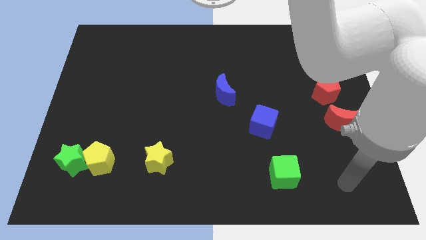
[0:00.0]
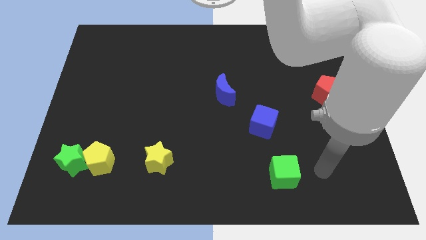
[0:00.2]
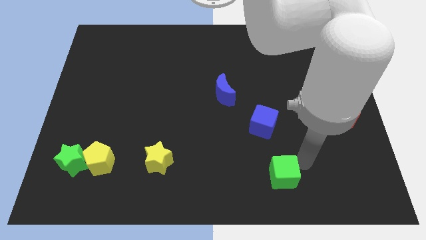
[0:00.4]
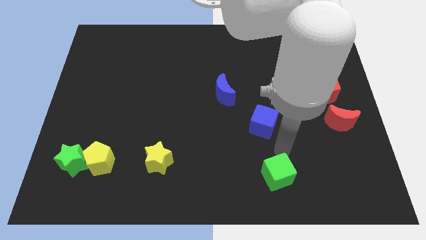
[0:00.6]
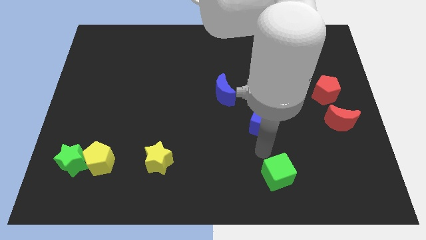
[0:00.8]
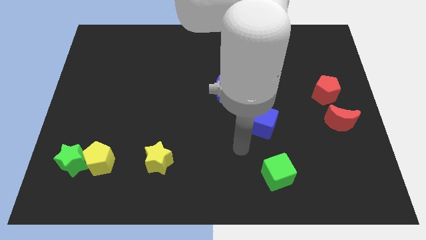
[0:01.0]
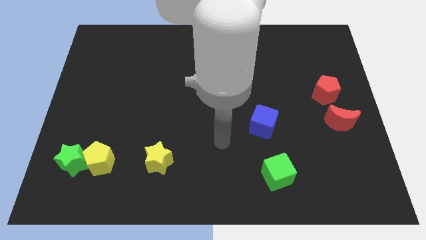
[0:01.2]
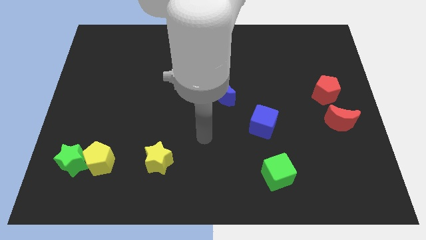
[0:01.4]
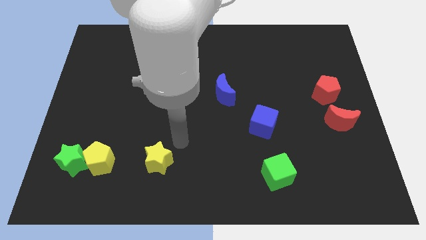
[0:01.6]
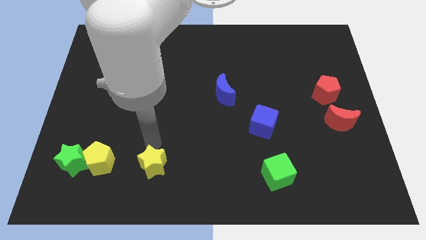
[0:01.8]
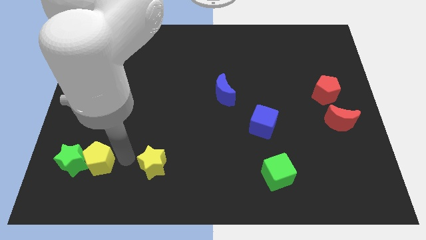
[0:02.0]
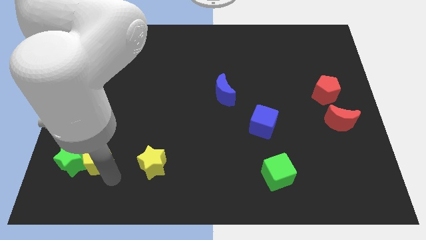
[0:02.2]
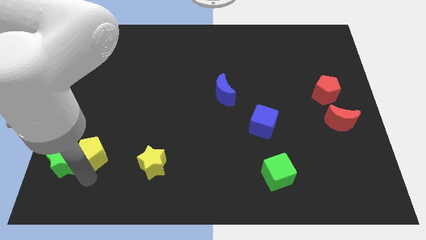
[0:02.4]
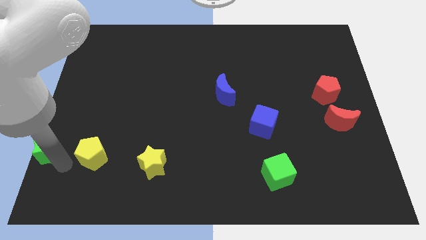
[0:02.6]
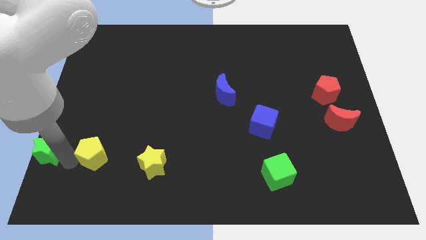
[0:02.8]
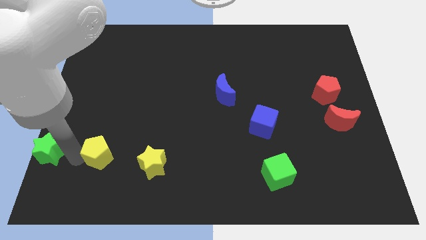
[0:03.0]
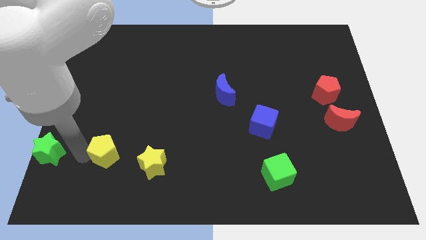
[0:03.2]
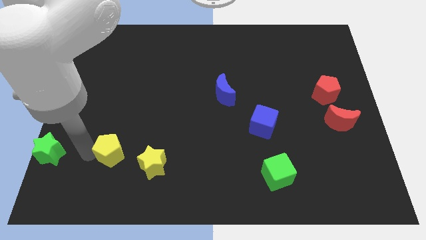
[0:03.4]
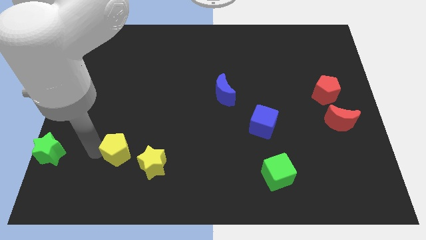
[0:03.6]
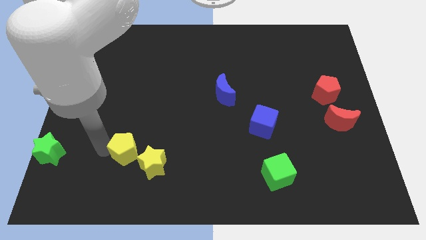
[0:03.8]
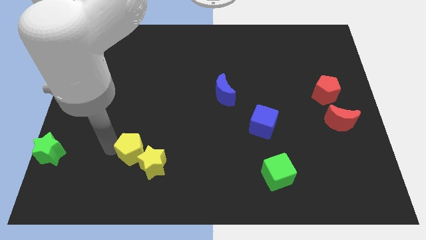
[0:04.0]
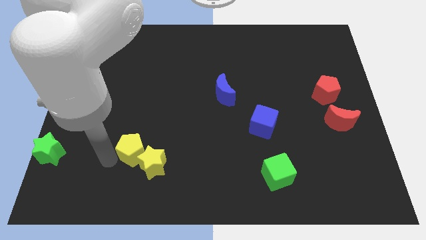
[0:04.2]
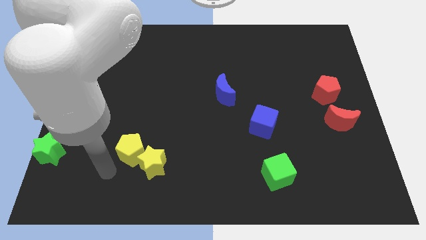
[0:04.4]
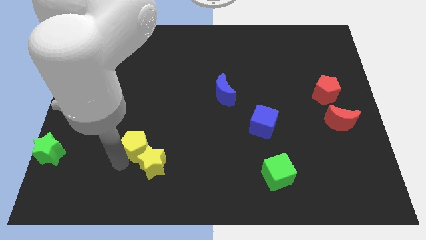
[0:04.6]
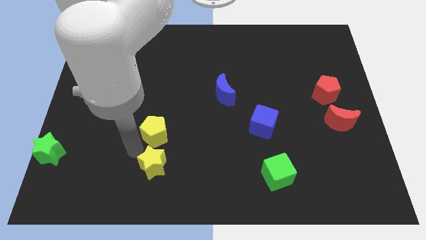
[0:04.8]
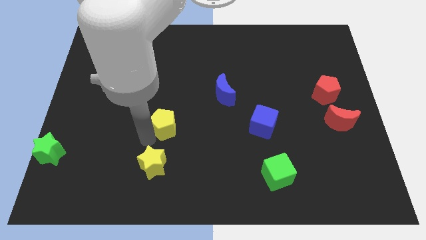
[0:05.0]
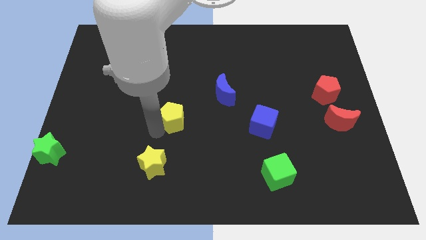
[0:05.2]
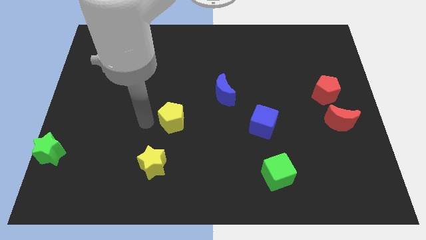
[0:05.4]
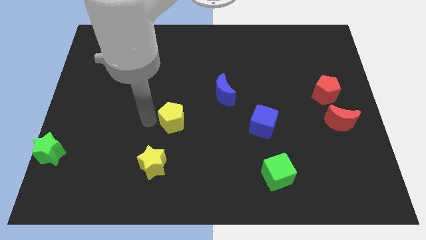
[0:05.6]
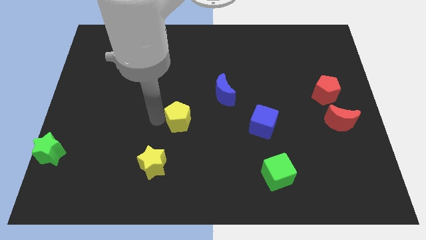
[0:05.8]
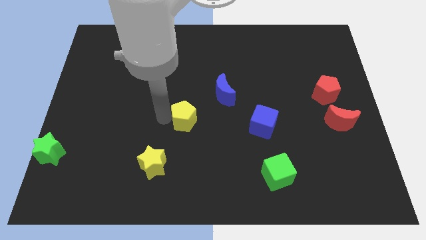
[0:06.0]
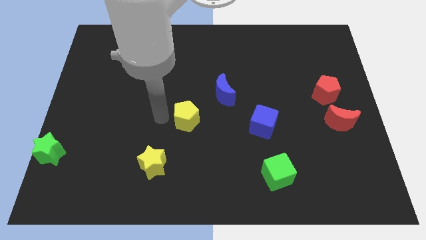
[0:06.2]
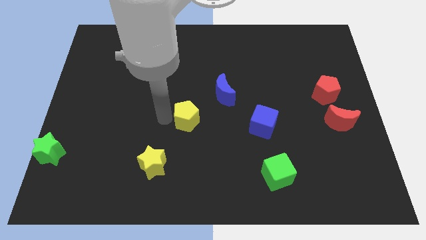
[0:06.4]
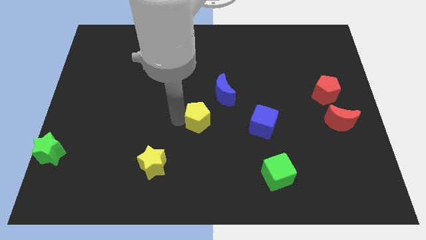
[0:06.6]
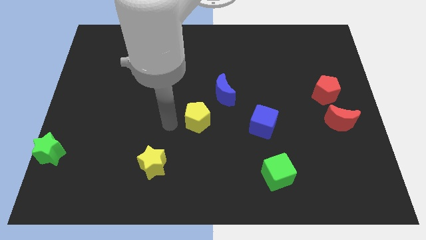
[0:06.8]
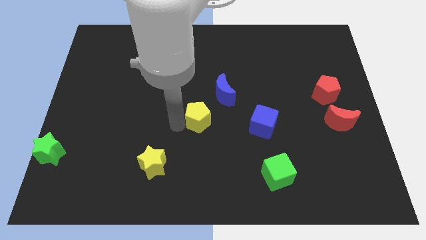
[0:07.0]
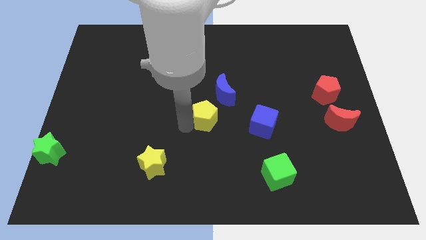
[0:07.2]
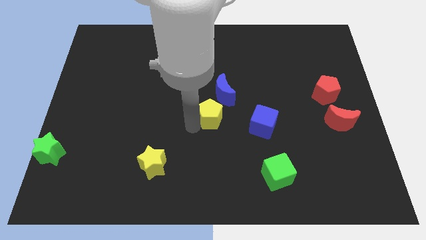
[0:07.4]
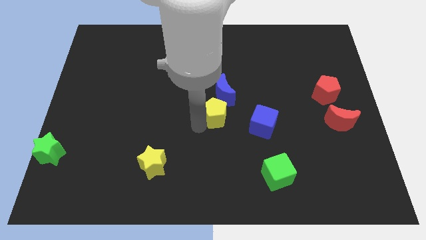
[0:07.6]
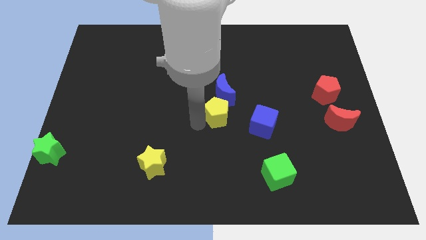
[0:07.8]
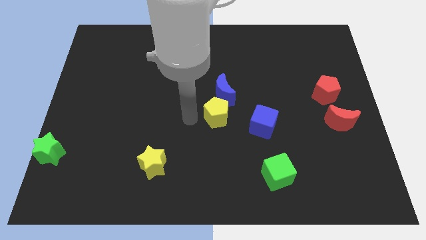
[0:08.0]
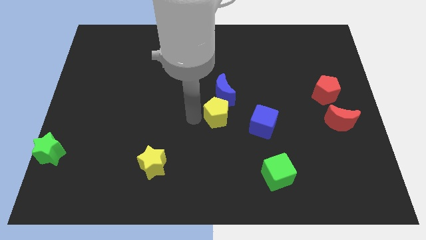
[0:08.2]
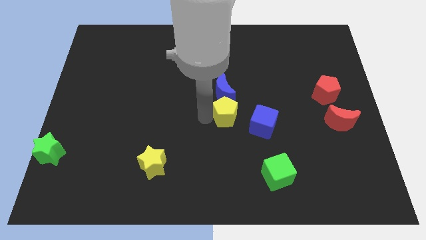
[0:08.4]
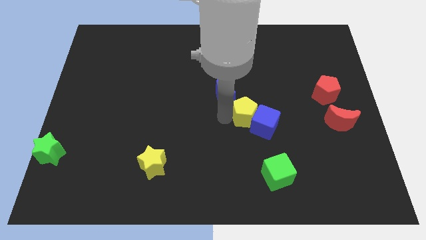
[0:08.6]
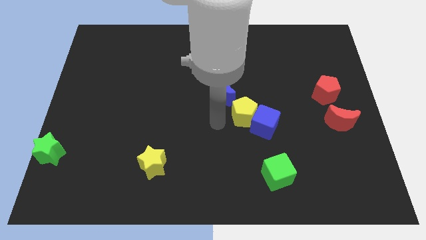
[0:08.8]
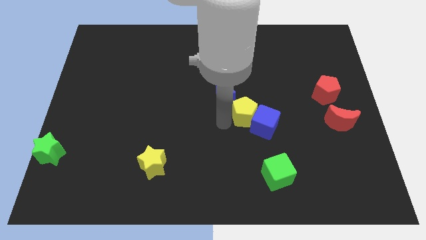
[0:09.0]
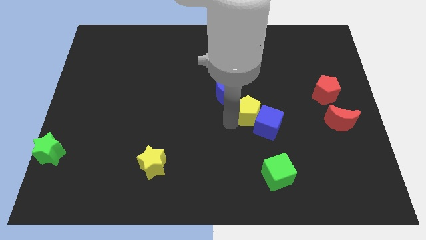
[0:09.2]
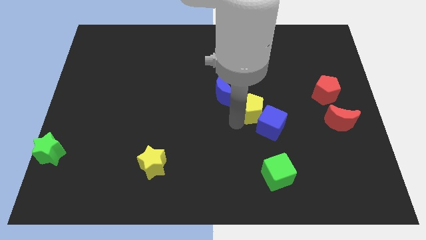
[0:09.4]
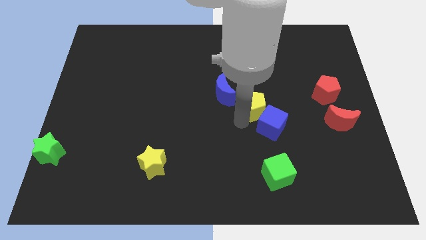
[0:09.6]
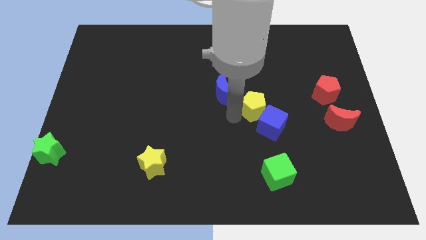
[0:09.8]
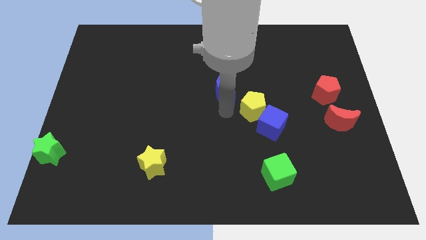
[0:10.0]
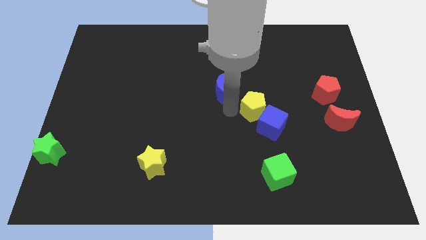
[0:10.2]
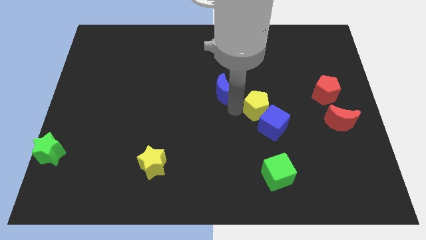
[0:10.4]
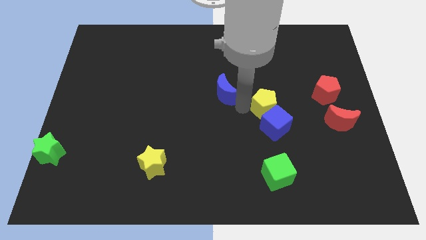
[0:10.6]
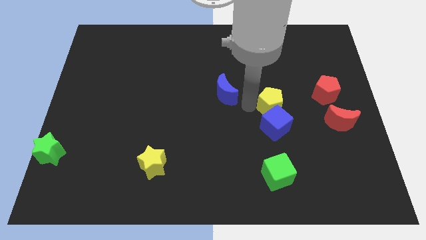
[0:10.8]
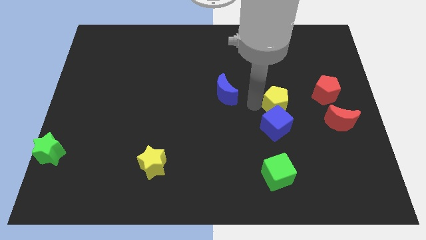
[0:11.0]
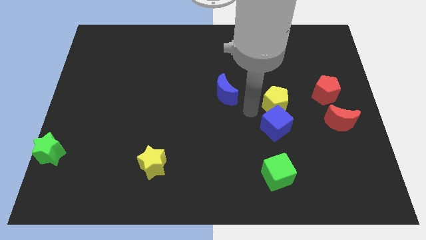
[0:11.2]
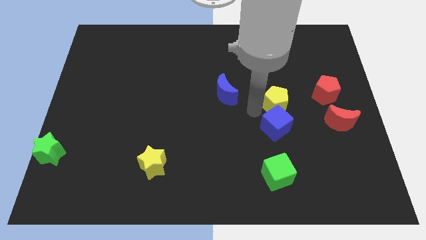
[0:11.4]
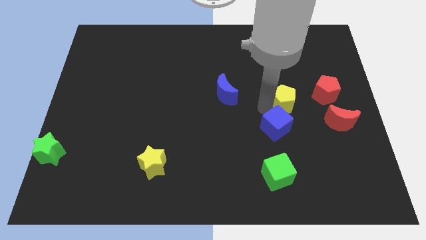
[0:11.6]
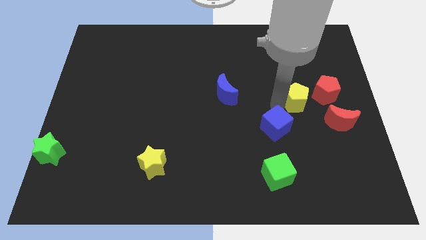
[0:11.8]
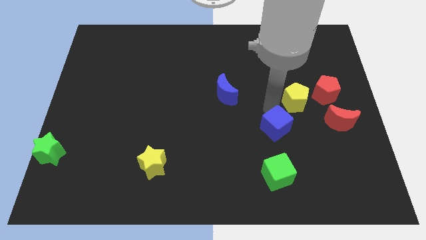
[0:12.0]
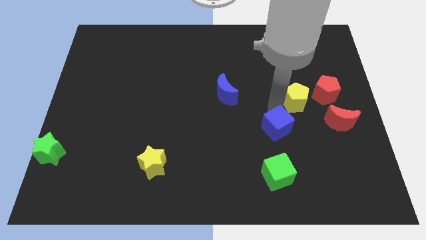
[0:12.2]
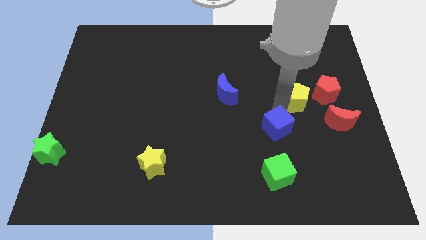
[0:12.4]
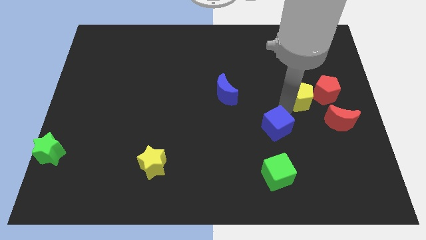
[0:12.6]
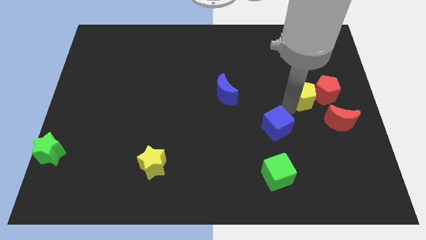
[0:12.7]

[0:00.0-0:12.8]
move the yellow pentagon close to the red pentagon
